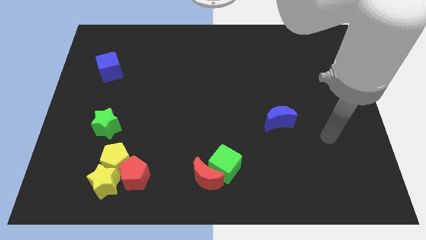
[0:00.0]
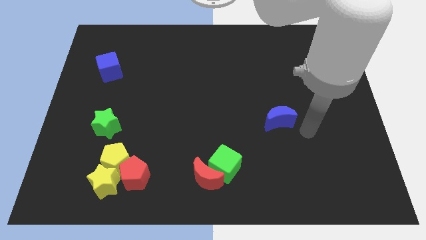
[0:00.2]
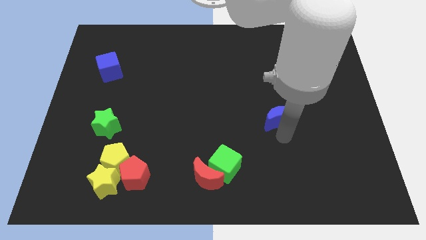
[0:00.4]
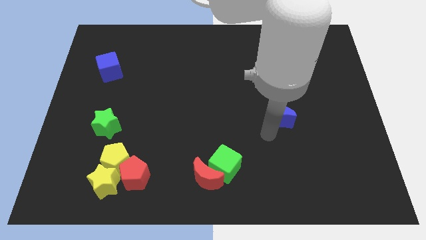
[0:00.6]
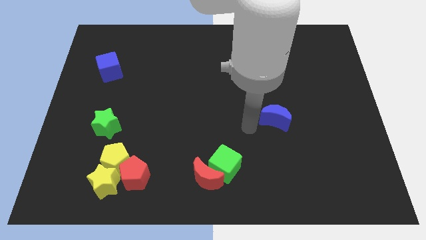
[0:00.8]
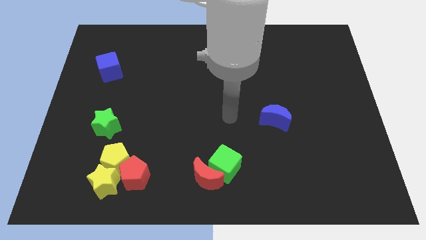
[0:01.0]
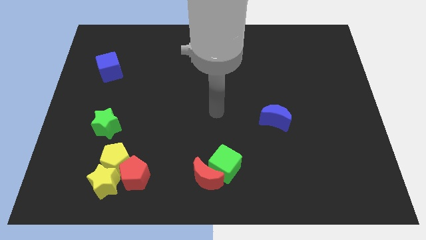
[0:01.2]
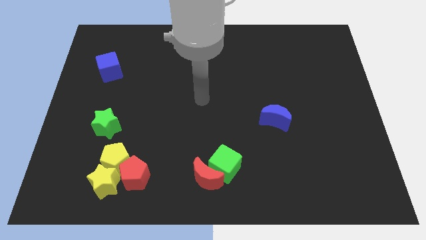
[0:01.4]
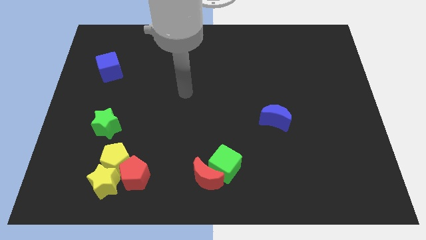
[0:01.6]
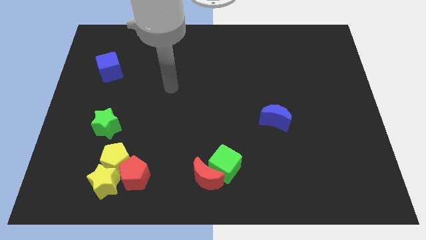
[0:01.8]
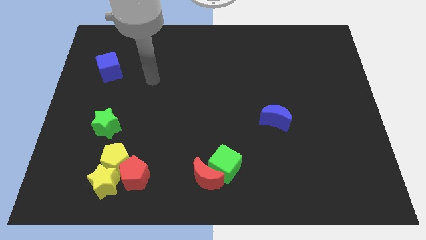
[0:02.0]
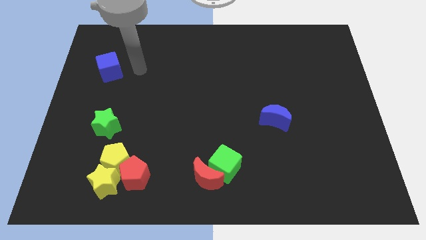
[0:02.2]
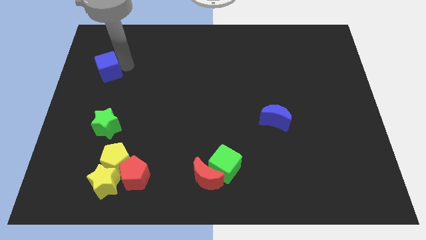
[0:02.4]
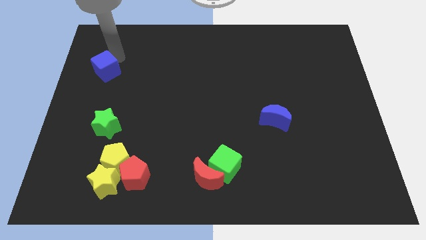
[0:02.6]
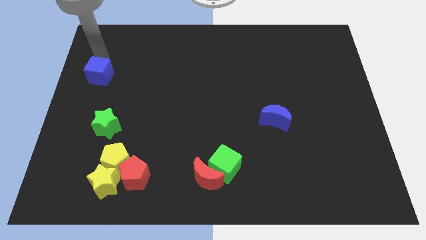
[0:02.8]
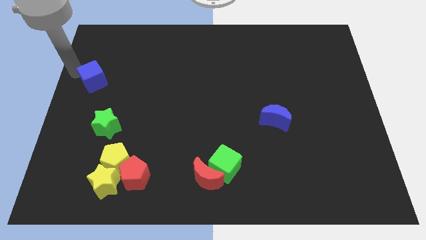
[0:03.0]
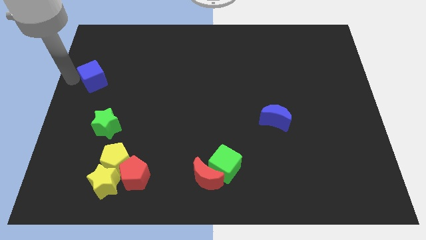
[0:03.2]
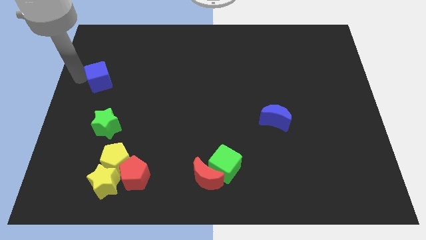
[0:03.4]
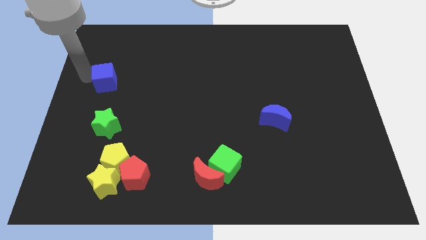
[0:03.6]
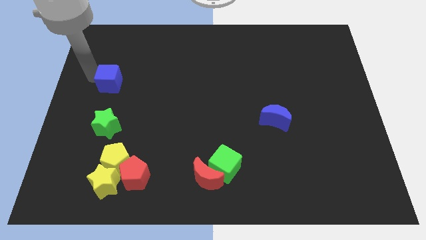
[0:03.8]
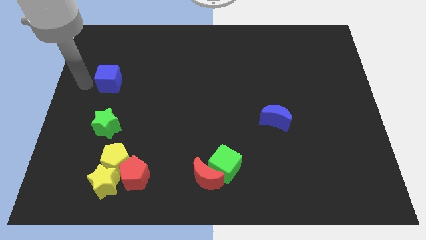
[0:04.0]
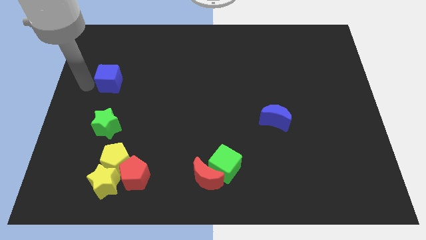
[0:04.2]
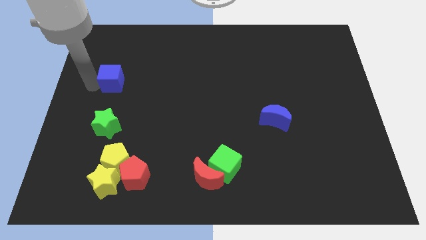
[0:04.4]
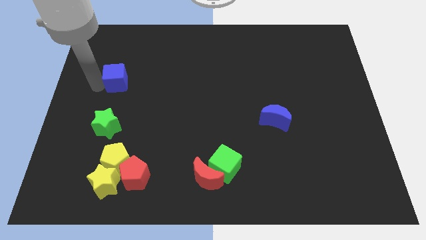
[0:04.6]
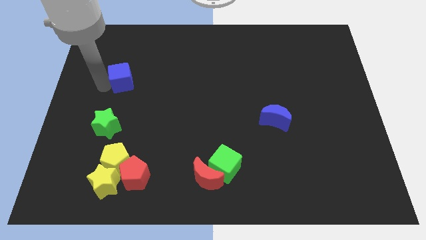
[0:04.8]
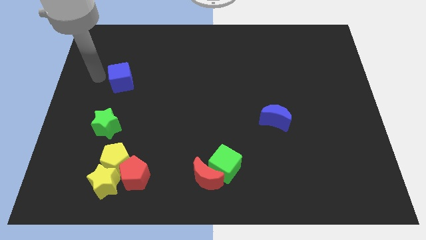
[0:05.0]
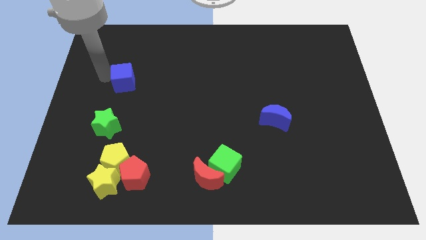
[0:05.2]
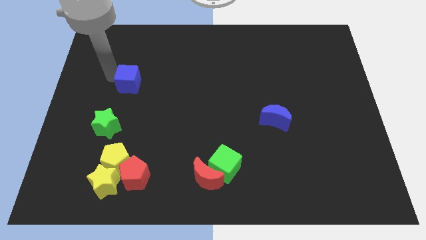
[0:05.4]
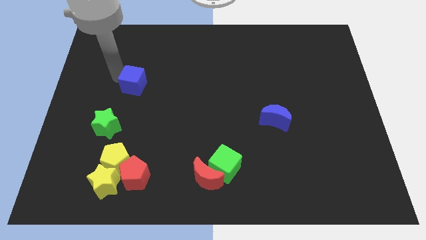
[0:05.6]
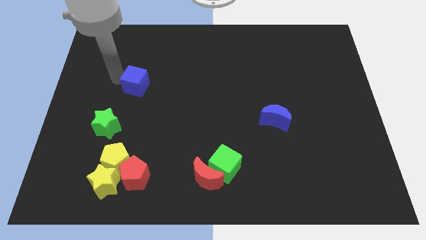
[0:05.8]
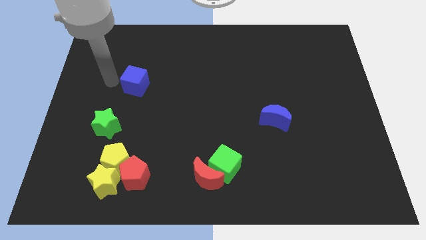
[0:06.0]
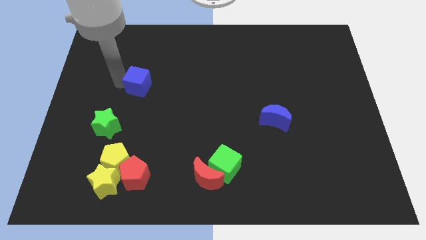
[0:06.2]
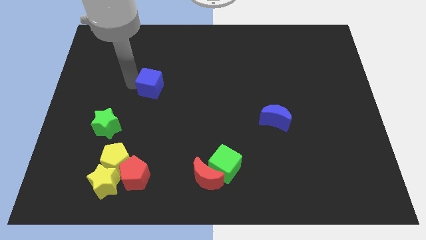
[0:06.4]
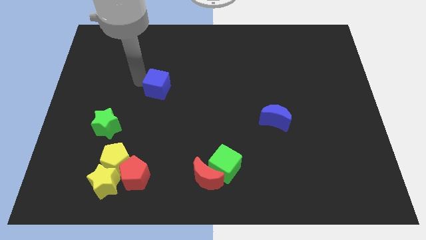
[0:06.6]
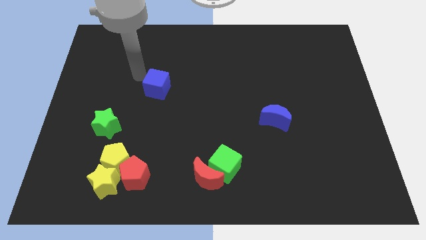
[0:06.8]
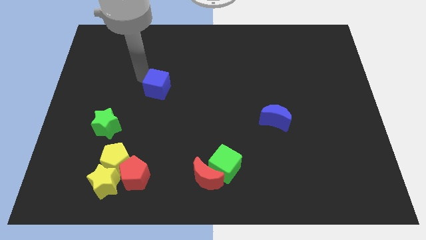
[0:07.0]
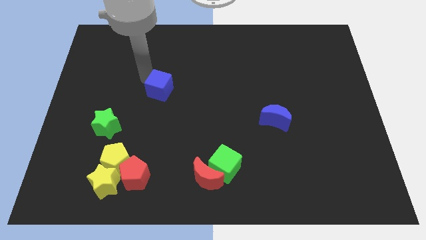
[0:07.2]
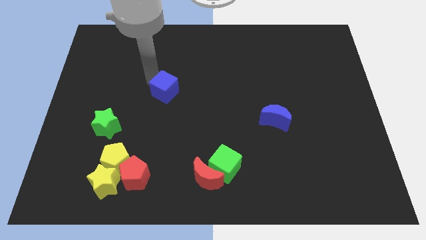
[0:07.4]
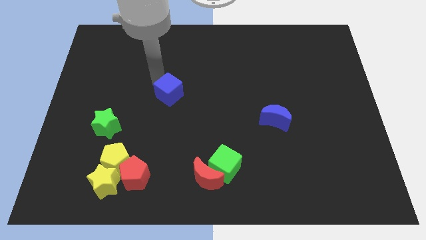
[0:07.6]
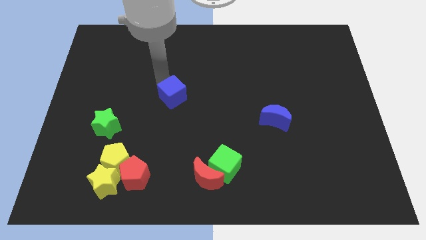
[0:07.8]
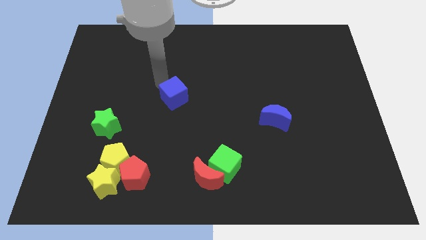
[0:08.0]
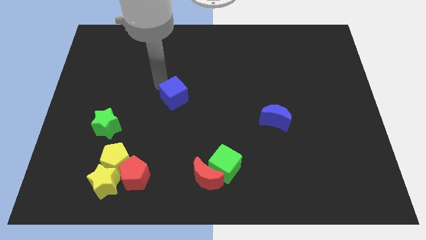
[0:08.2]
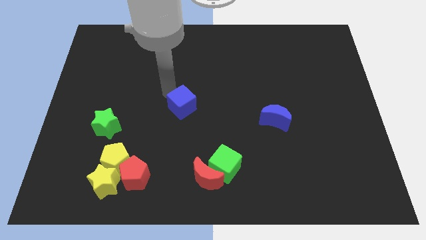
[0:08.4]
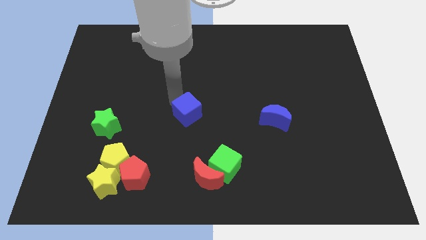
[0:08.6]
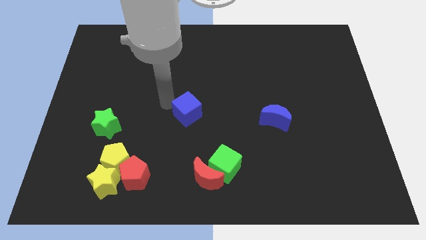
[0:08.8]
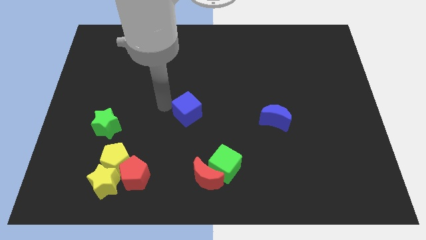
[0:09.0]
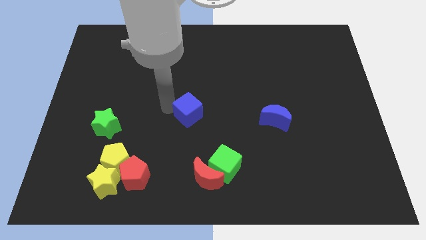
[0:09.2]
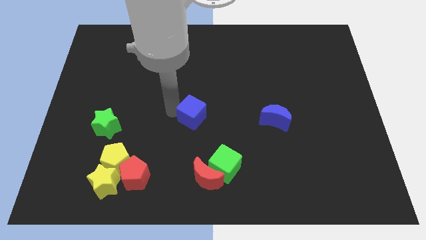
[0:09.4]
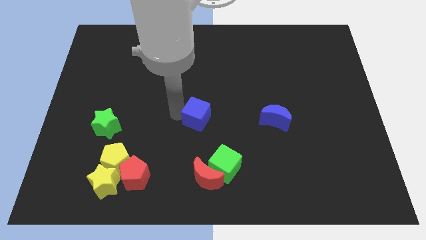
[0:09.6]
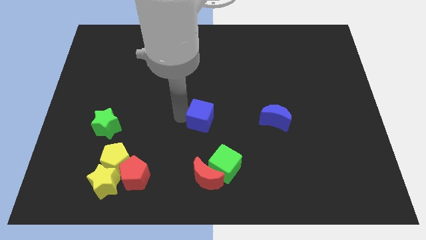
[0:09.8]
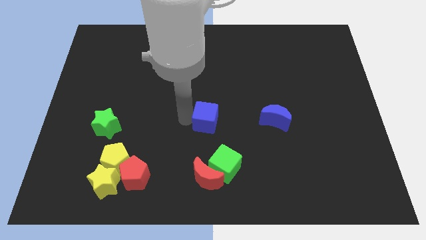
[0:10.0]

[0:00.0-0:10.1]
slide the blue cube to the left side of the blue moon

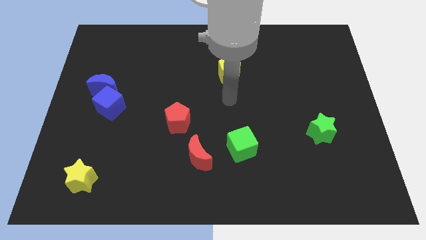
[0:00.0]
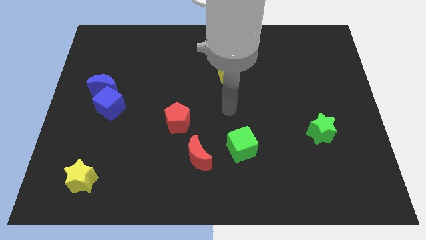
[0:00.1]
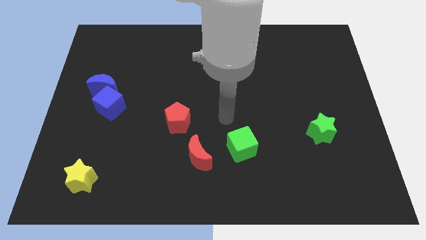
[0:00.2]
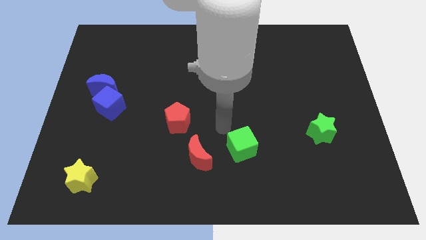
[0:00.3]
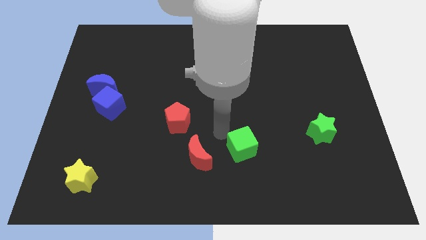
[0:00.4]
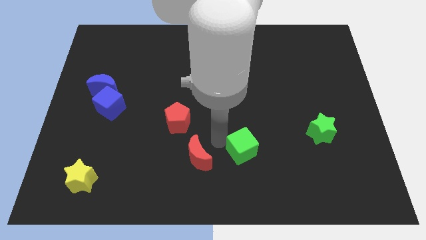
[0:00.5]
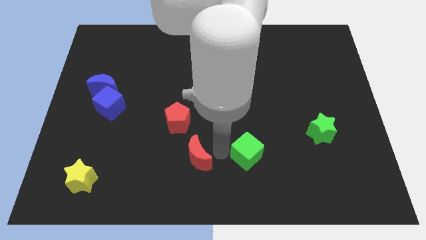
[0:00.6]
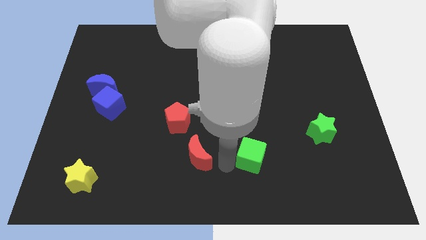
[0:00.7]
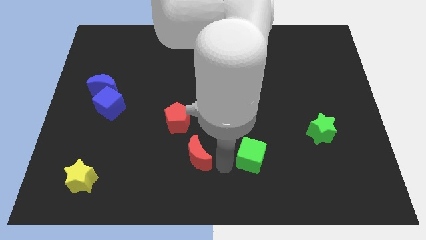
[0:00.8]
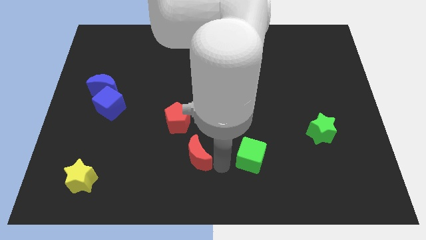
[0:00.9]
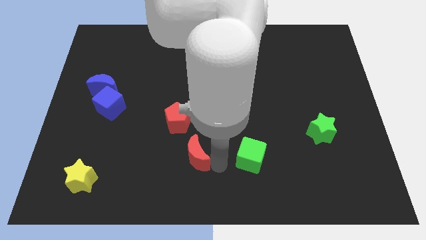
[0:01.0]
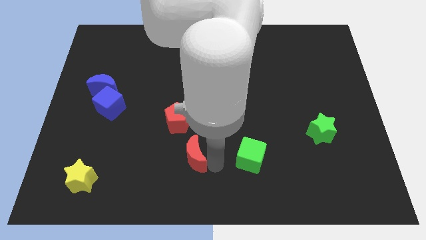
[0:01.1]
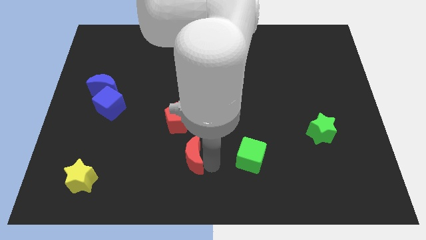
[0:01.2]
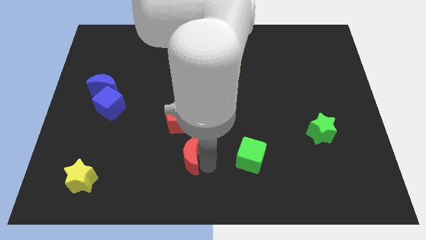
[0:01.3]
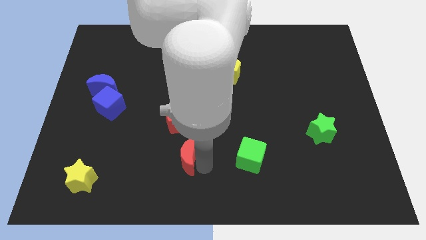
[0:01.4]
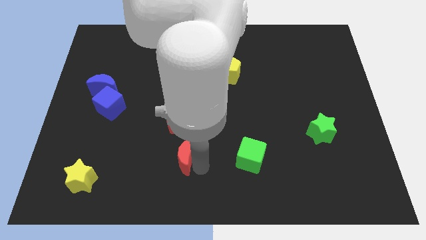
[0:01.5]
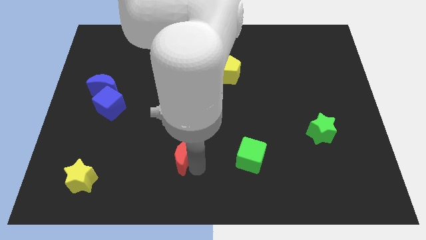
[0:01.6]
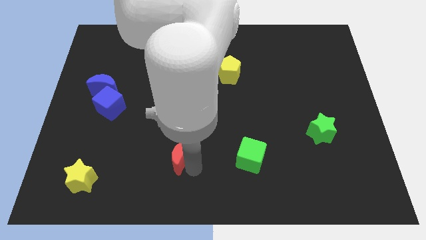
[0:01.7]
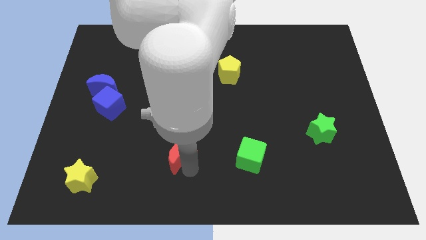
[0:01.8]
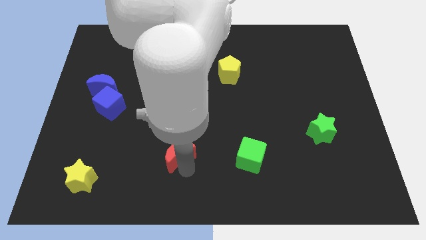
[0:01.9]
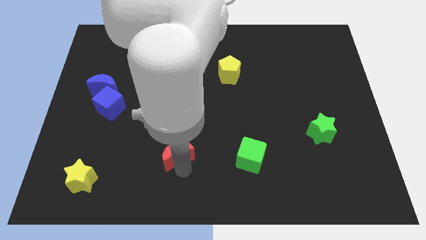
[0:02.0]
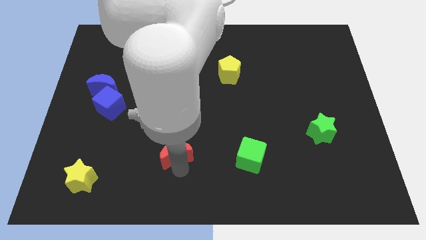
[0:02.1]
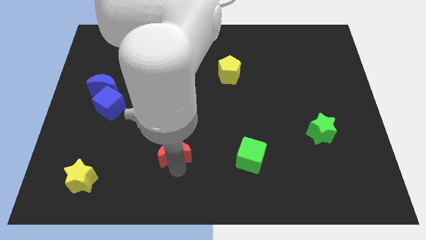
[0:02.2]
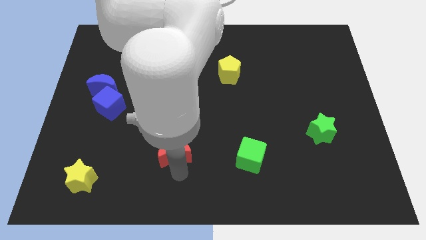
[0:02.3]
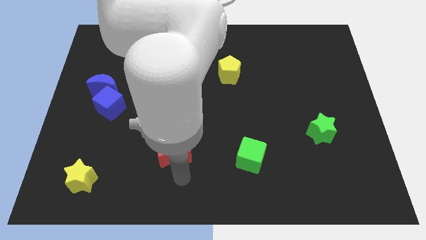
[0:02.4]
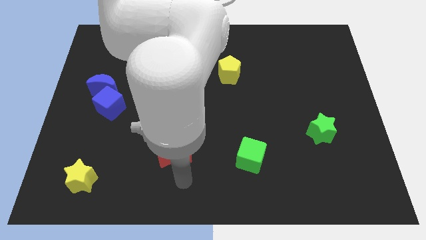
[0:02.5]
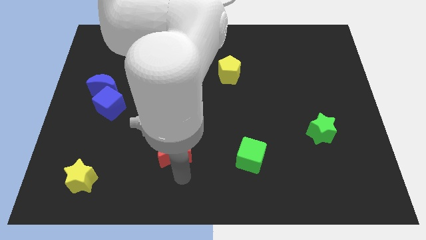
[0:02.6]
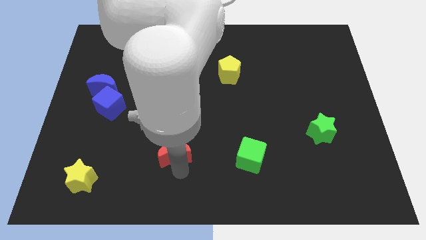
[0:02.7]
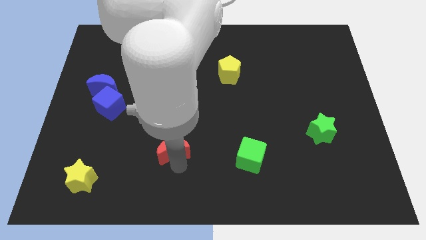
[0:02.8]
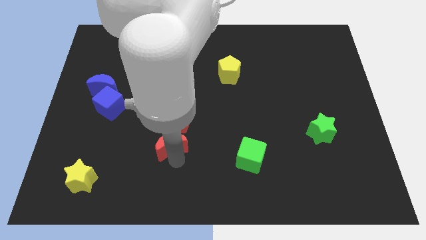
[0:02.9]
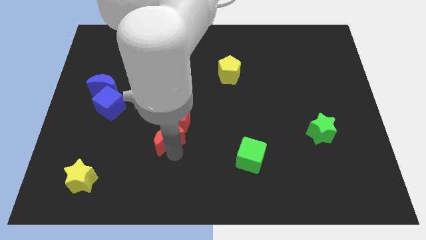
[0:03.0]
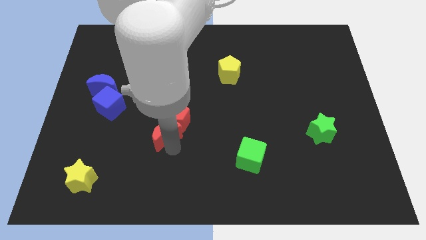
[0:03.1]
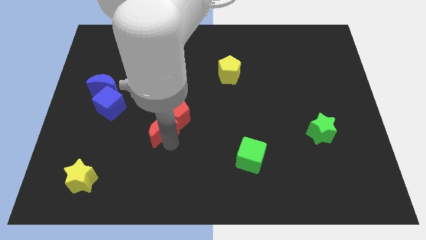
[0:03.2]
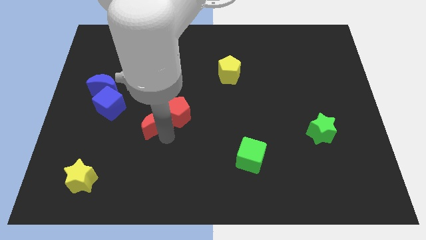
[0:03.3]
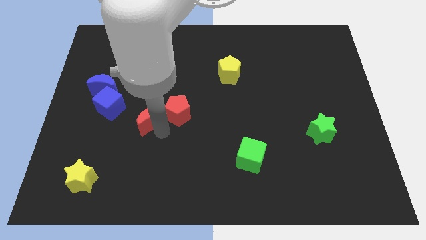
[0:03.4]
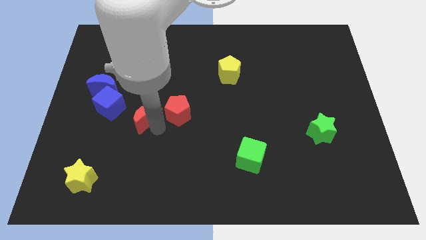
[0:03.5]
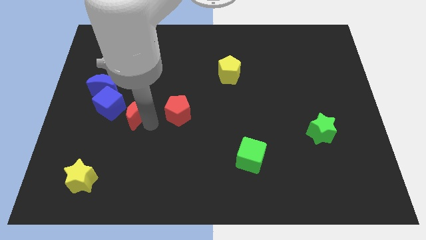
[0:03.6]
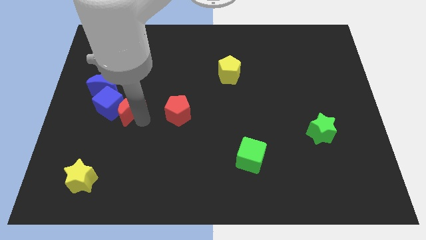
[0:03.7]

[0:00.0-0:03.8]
put the red moon to the top right side of the blue cube
